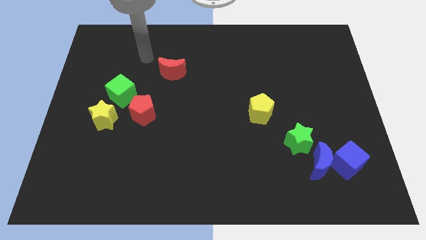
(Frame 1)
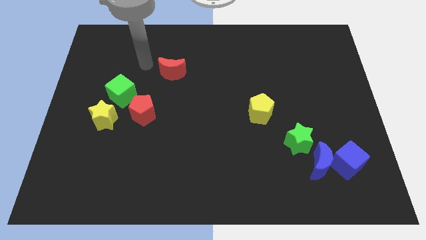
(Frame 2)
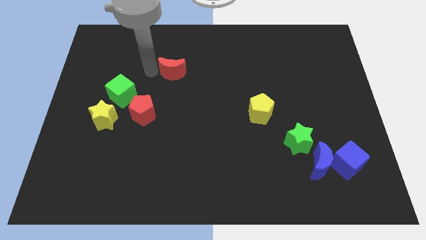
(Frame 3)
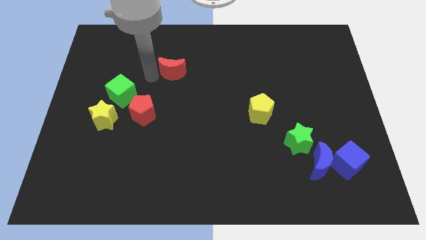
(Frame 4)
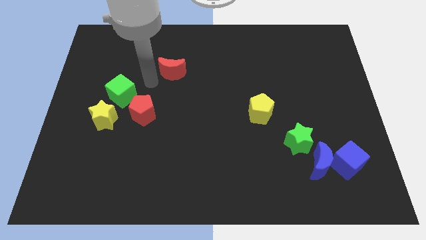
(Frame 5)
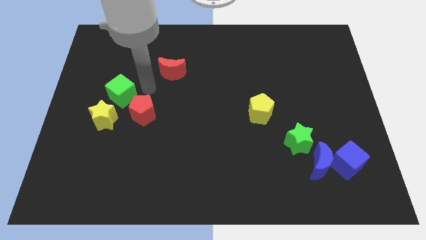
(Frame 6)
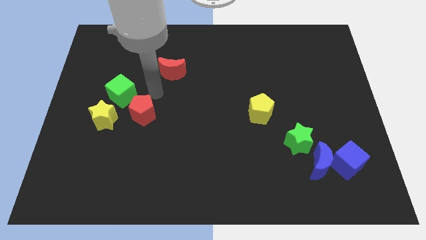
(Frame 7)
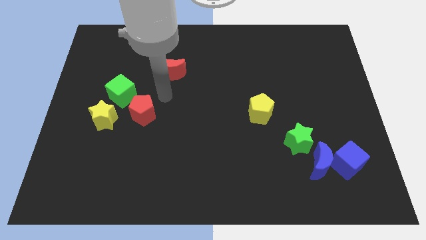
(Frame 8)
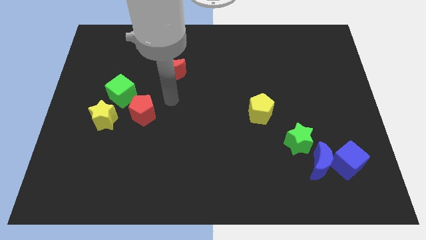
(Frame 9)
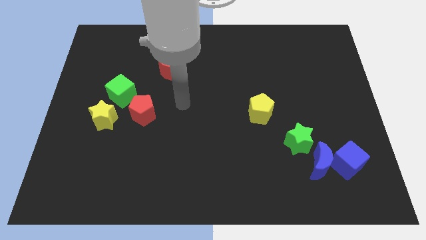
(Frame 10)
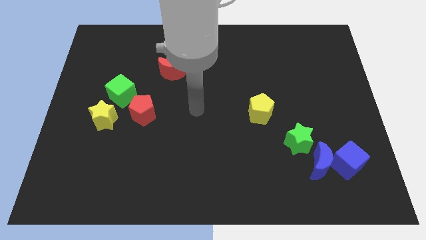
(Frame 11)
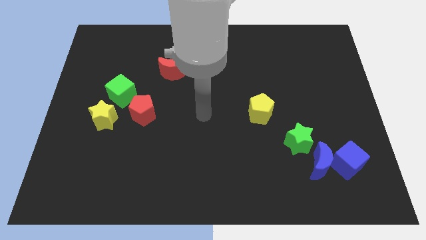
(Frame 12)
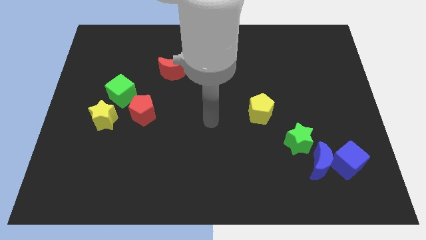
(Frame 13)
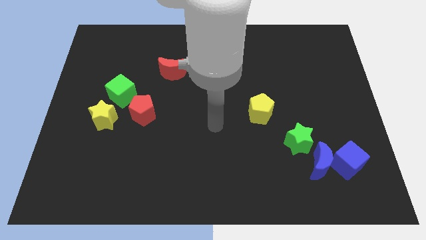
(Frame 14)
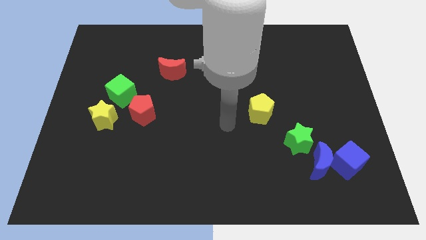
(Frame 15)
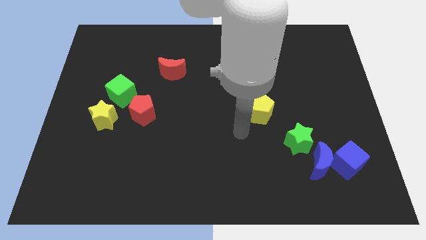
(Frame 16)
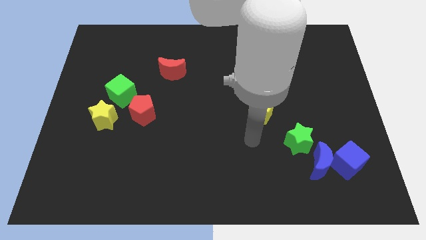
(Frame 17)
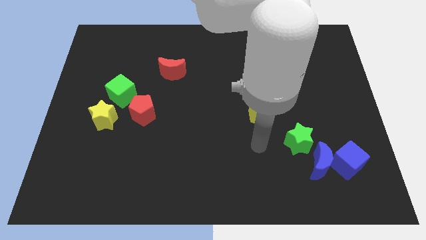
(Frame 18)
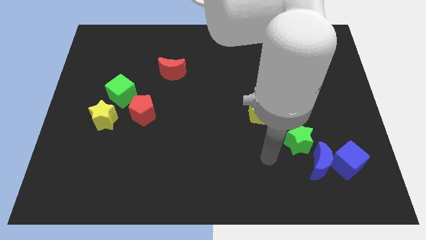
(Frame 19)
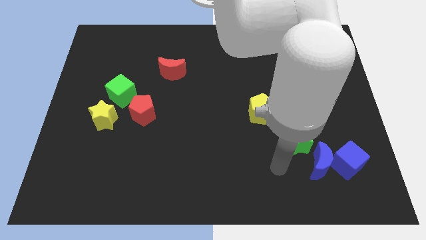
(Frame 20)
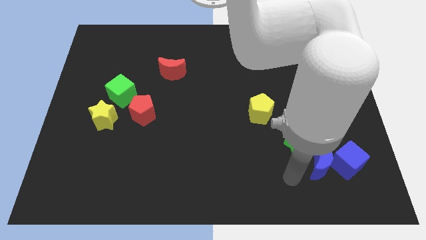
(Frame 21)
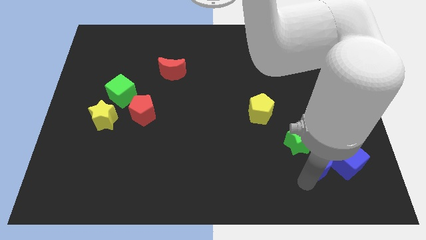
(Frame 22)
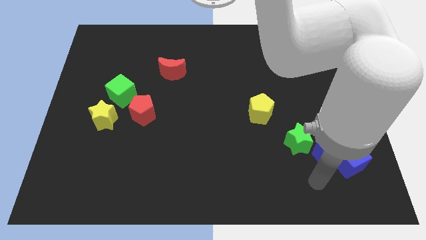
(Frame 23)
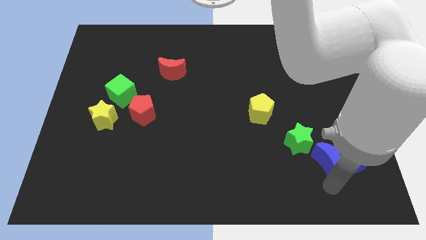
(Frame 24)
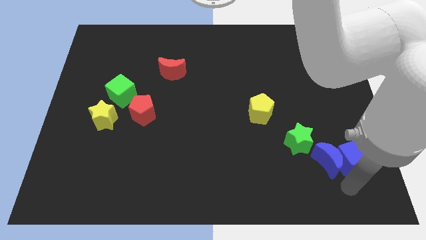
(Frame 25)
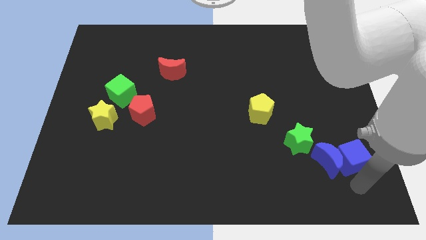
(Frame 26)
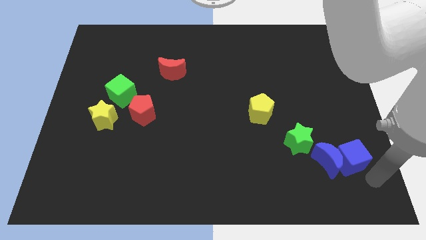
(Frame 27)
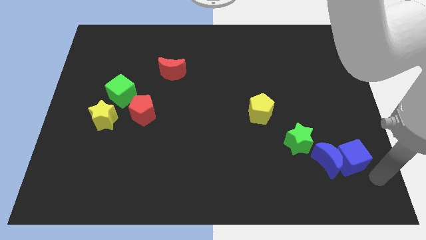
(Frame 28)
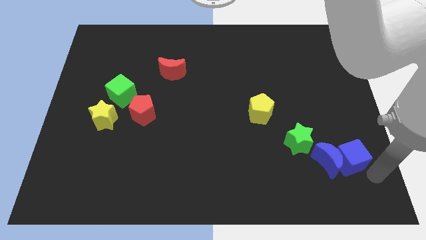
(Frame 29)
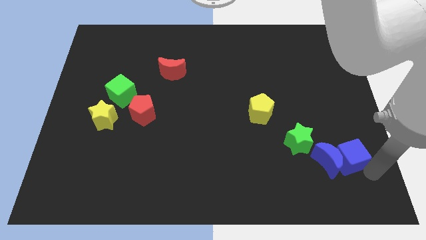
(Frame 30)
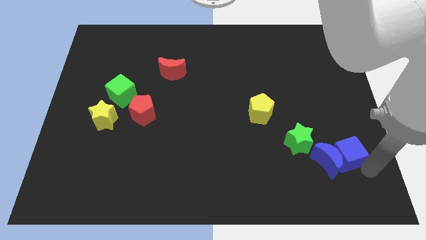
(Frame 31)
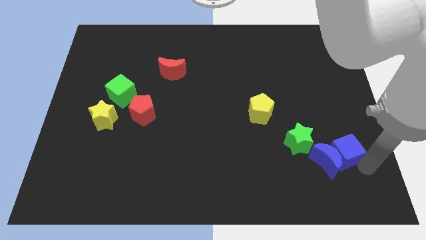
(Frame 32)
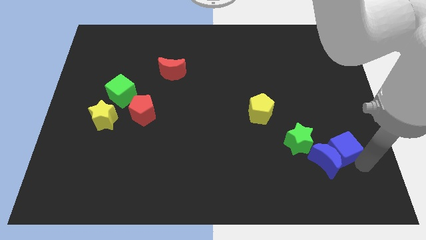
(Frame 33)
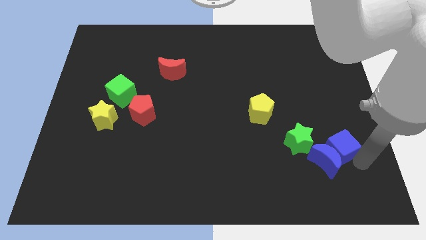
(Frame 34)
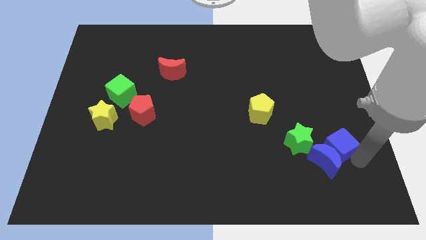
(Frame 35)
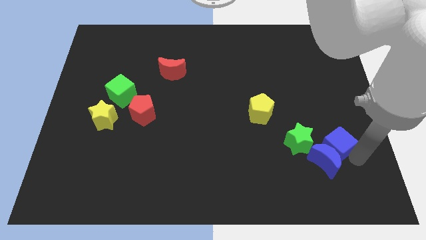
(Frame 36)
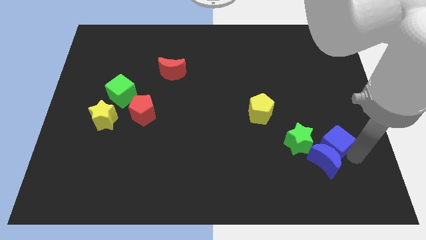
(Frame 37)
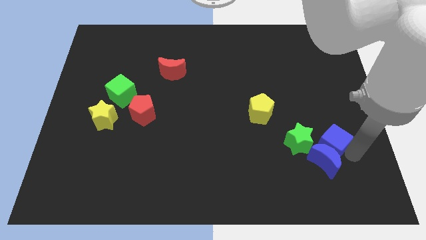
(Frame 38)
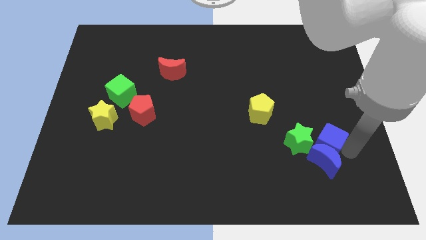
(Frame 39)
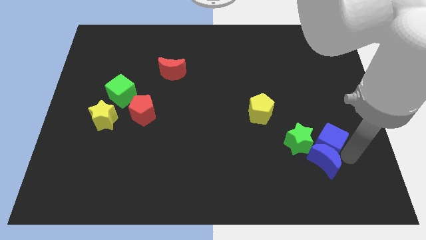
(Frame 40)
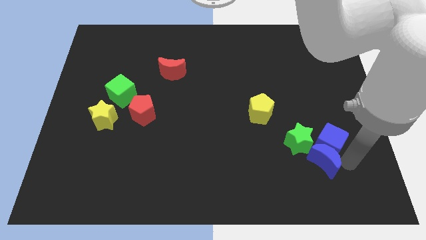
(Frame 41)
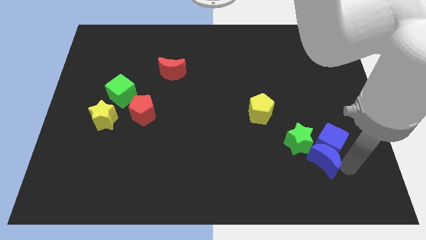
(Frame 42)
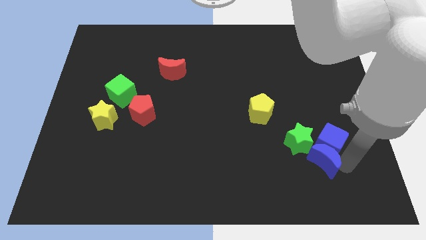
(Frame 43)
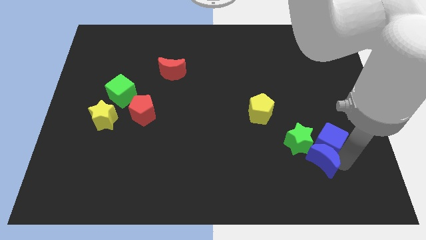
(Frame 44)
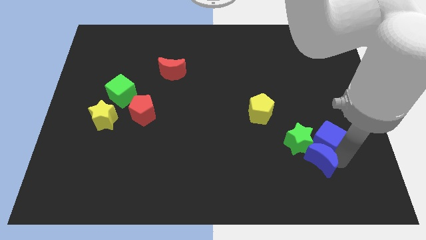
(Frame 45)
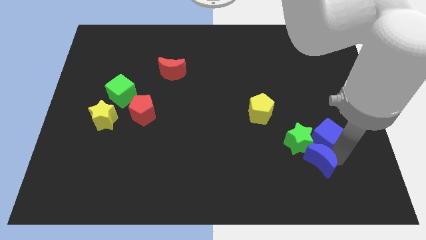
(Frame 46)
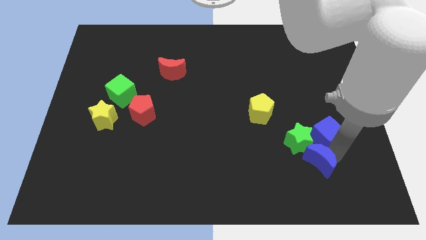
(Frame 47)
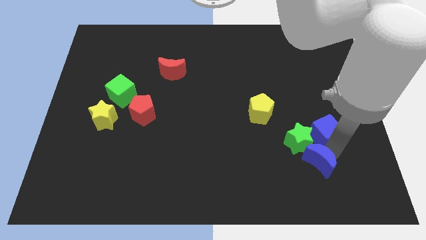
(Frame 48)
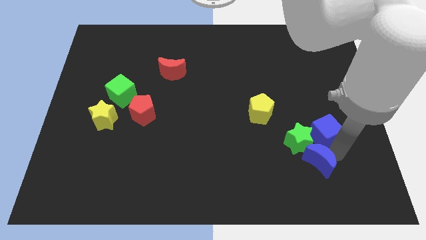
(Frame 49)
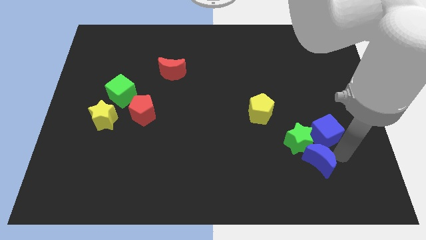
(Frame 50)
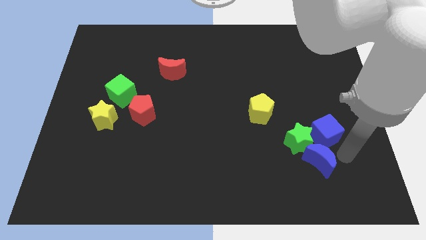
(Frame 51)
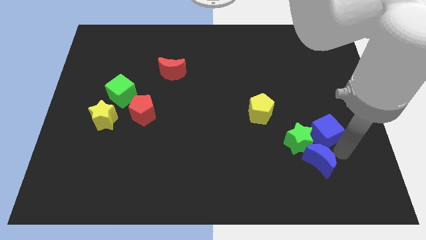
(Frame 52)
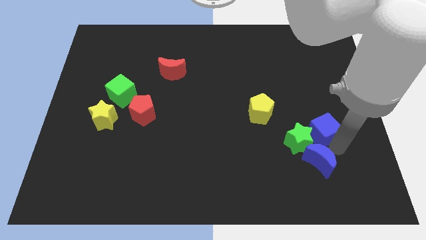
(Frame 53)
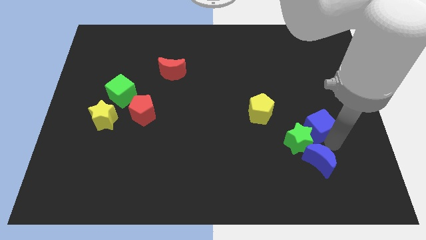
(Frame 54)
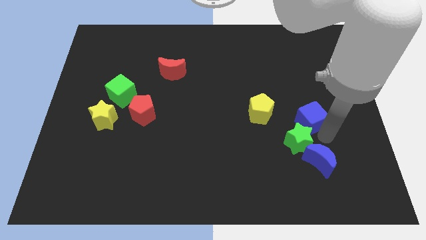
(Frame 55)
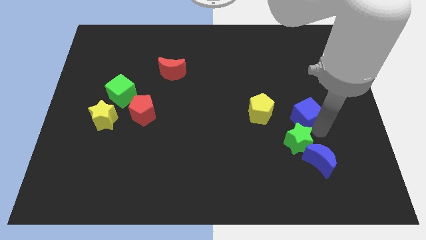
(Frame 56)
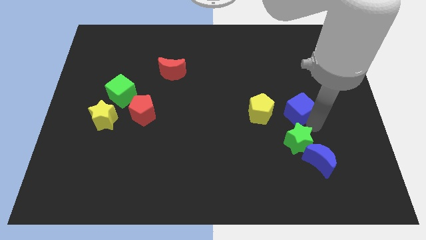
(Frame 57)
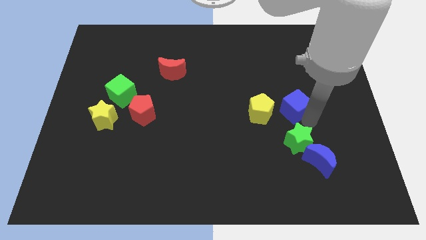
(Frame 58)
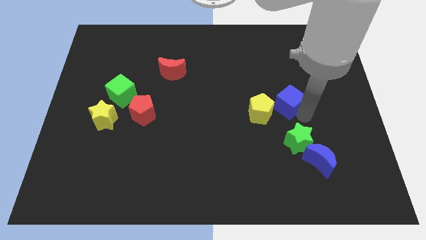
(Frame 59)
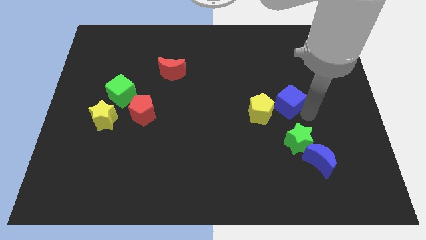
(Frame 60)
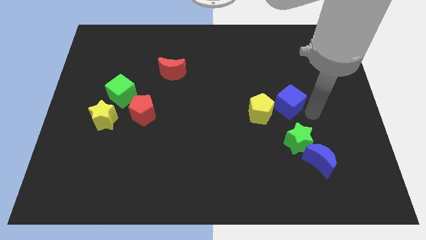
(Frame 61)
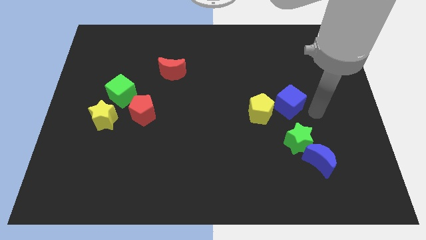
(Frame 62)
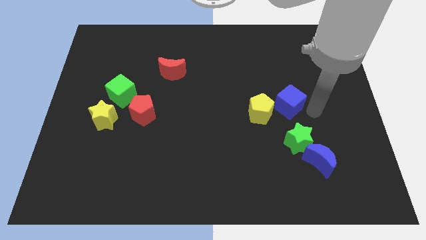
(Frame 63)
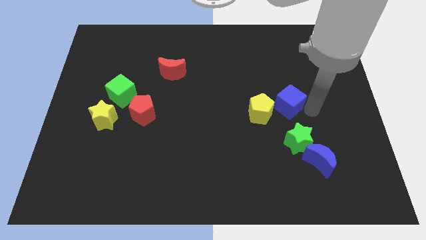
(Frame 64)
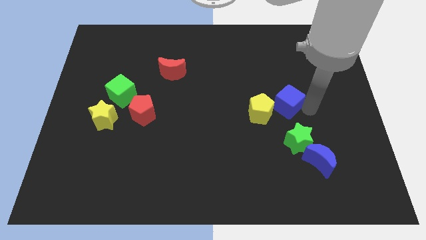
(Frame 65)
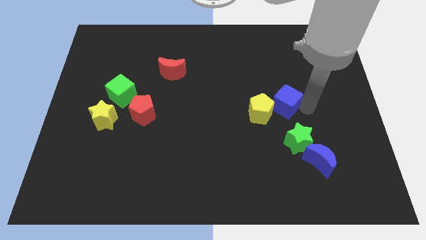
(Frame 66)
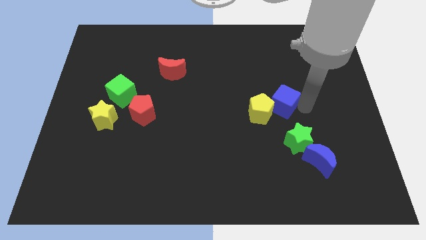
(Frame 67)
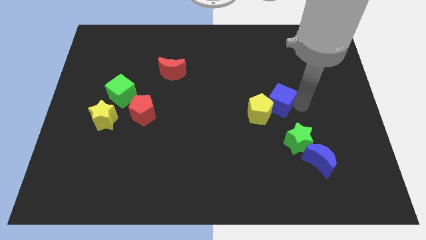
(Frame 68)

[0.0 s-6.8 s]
move the blue cube up and then to the left

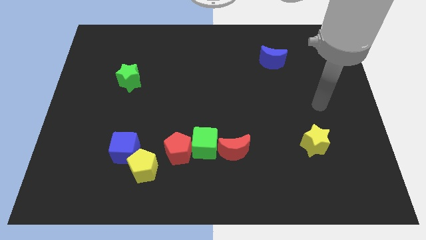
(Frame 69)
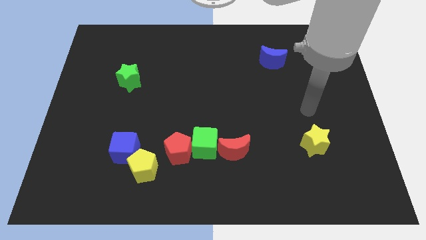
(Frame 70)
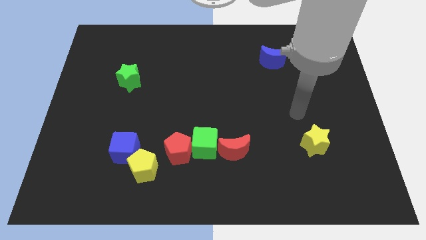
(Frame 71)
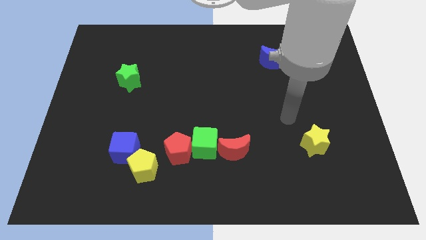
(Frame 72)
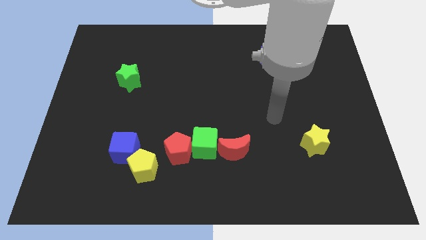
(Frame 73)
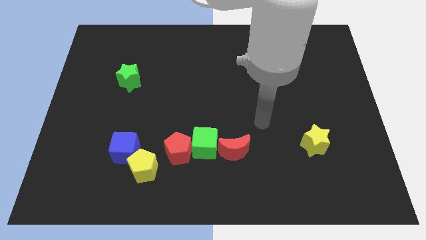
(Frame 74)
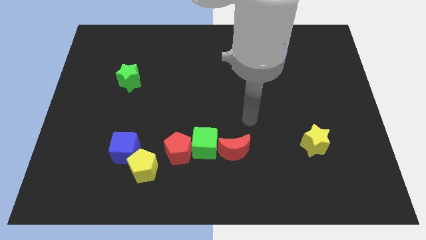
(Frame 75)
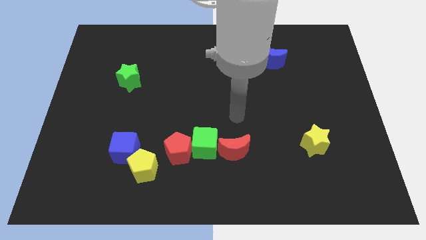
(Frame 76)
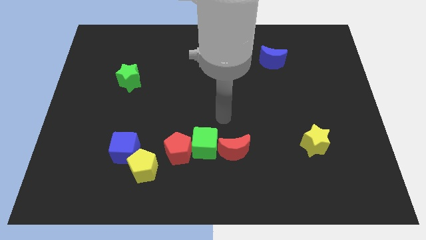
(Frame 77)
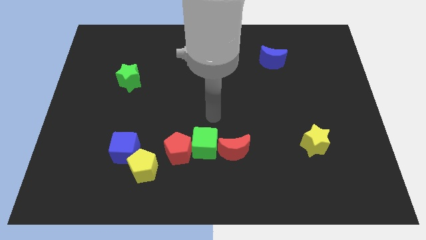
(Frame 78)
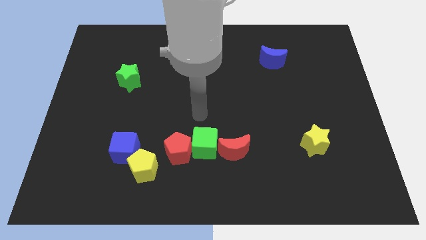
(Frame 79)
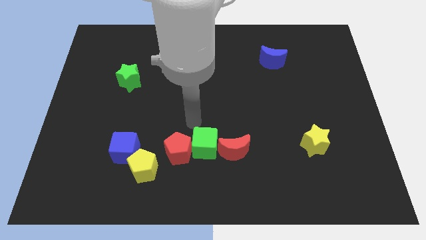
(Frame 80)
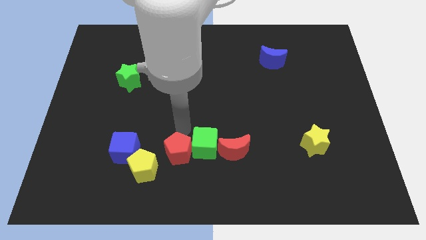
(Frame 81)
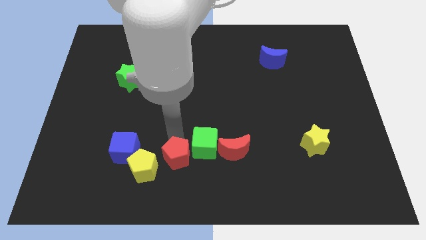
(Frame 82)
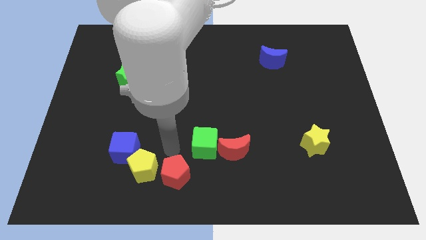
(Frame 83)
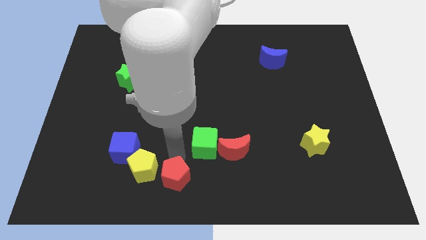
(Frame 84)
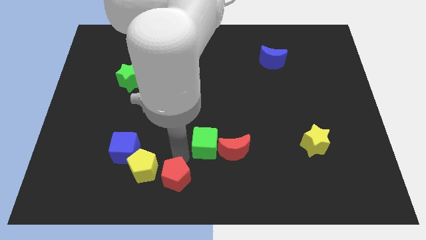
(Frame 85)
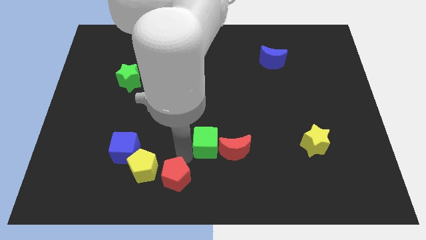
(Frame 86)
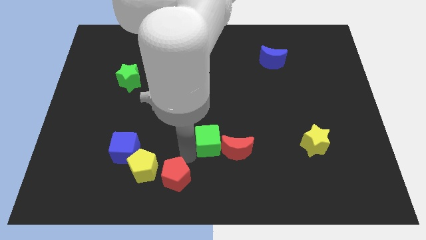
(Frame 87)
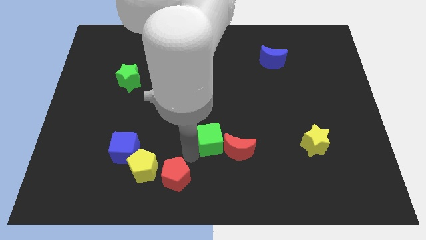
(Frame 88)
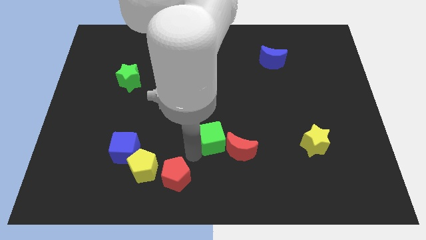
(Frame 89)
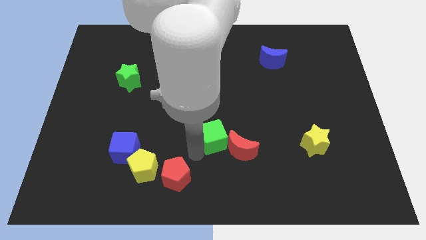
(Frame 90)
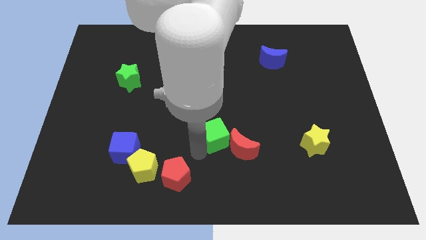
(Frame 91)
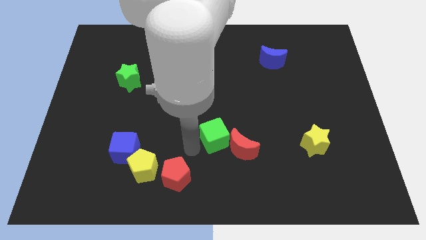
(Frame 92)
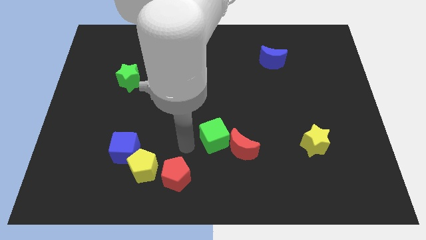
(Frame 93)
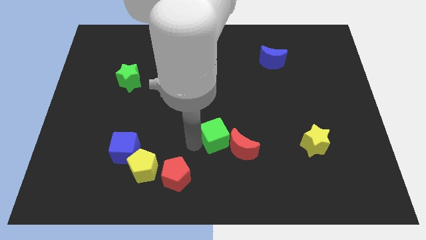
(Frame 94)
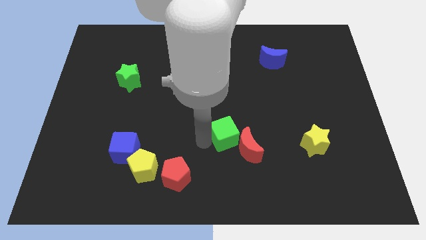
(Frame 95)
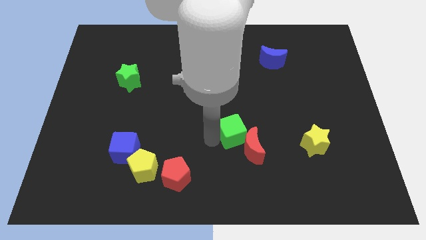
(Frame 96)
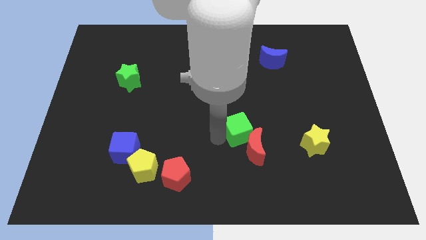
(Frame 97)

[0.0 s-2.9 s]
push the green cube somewhat to the right
